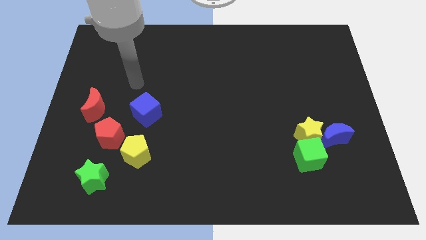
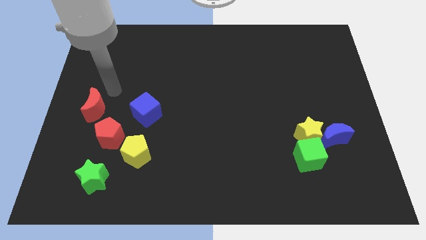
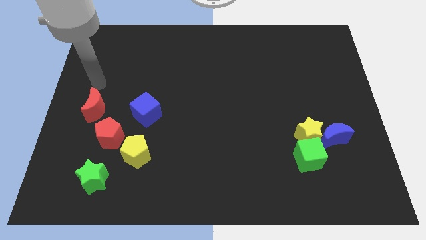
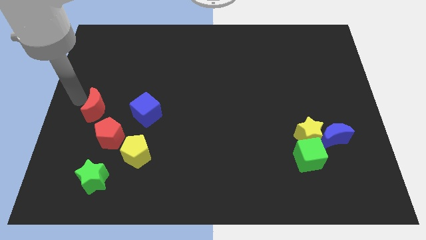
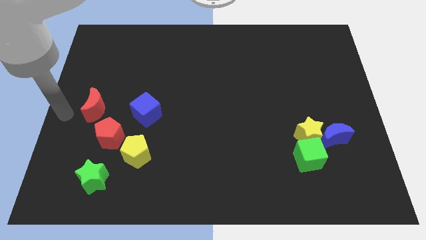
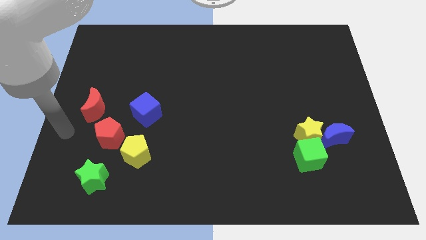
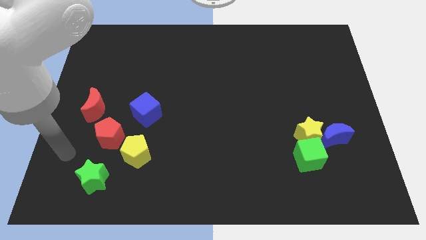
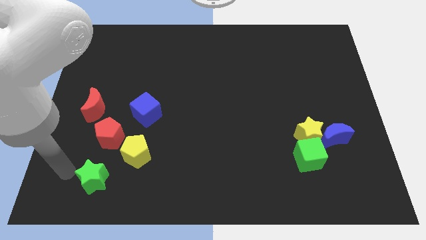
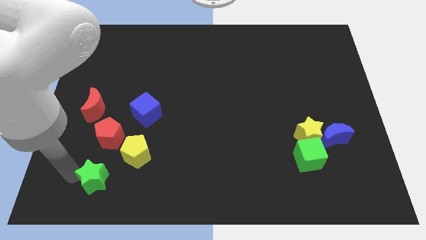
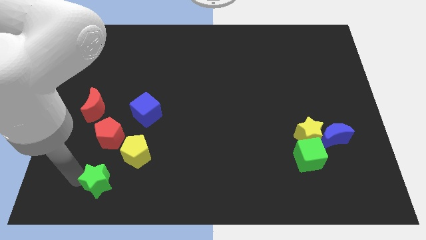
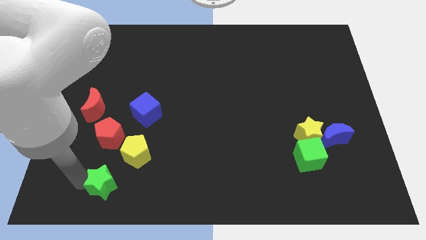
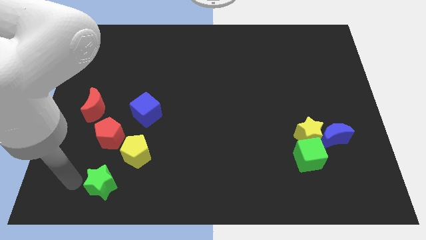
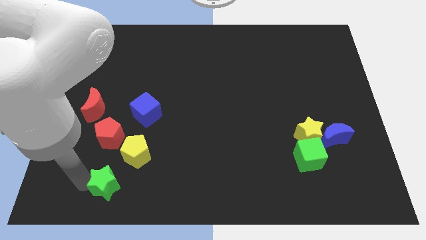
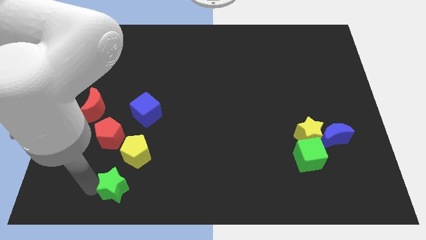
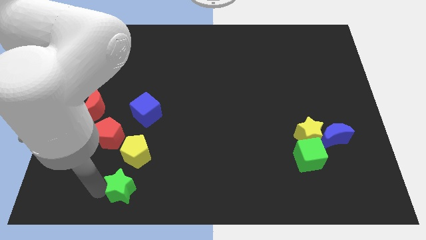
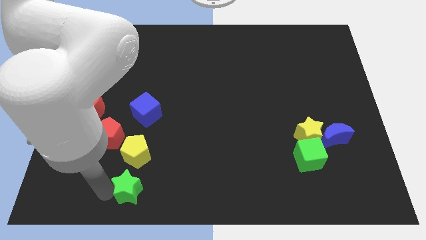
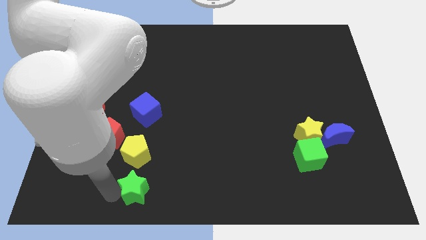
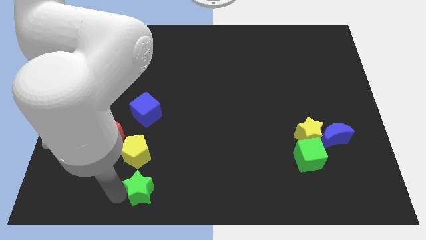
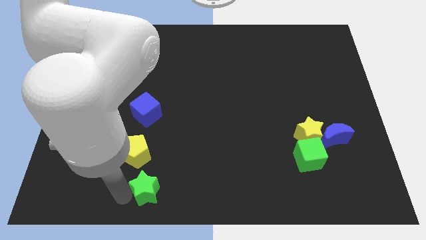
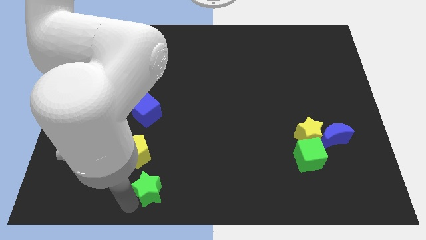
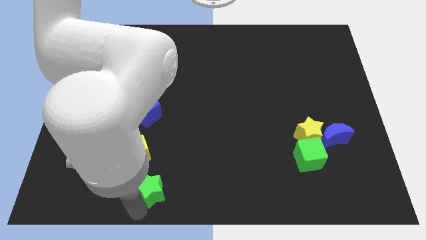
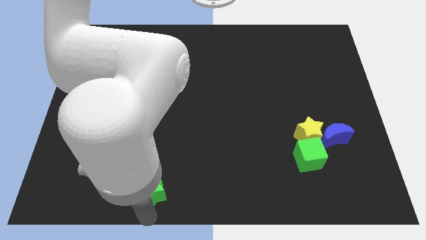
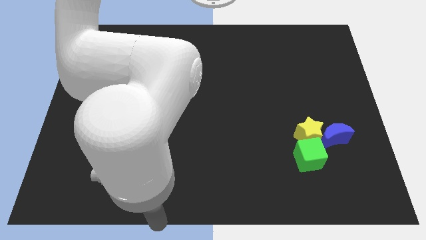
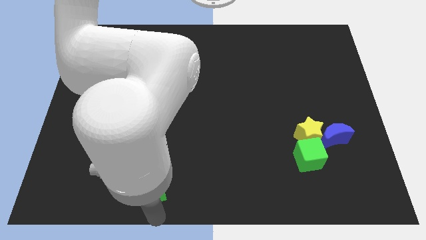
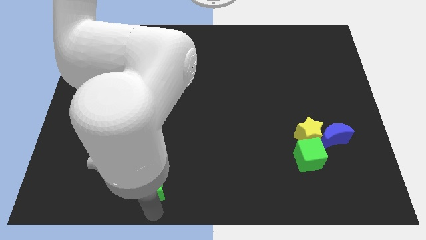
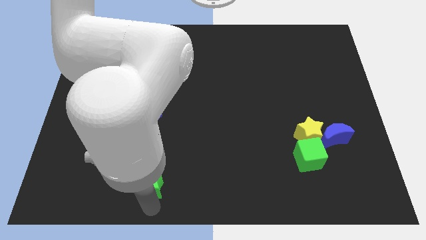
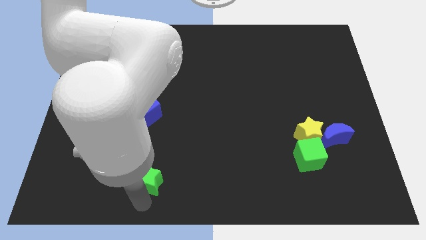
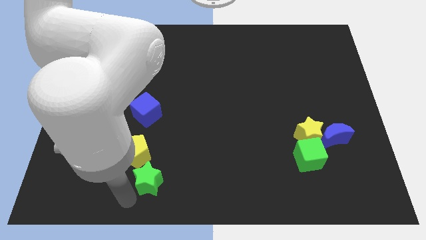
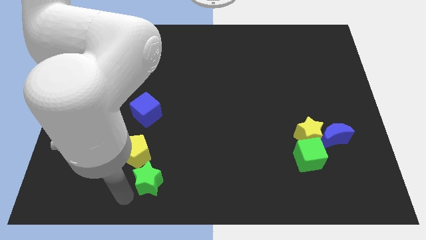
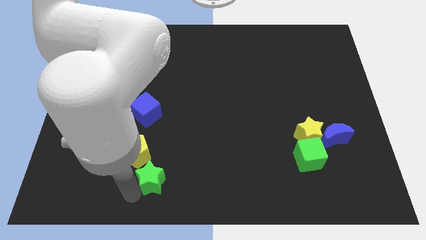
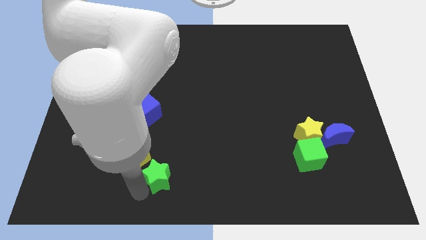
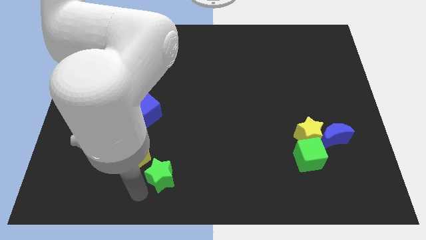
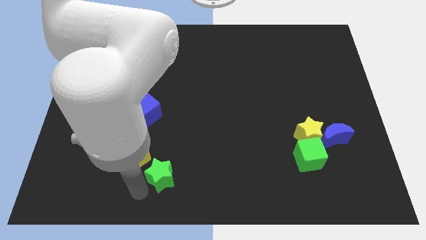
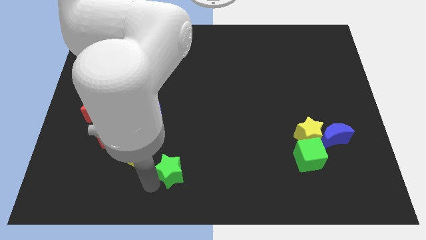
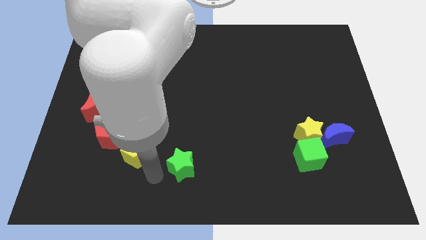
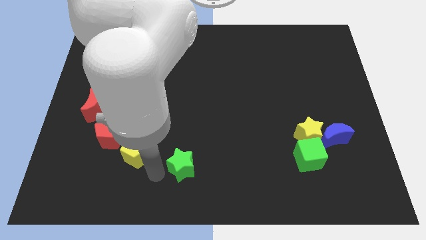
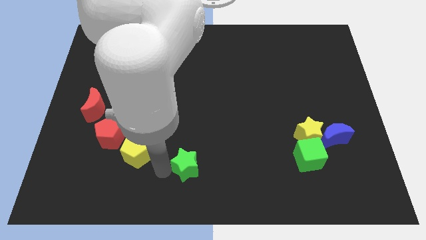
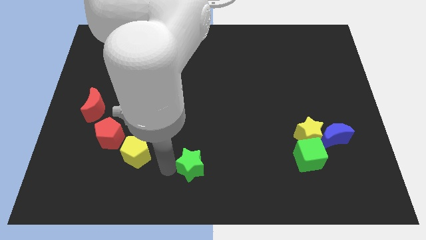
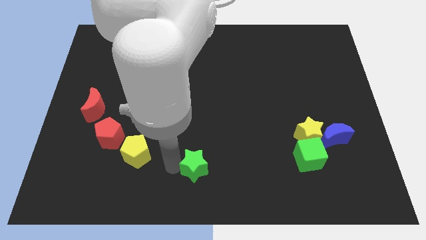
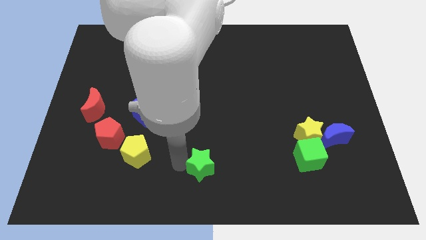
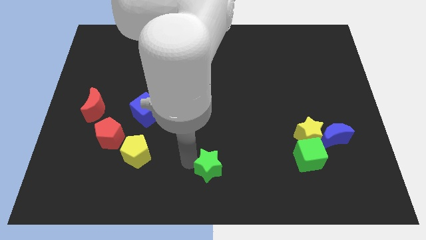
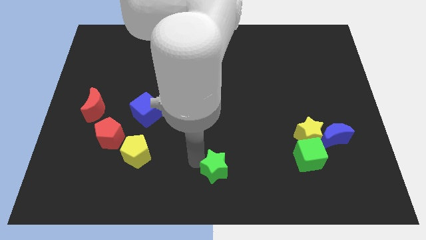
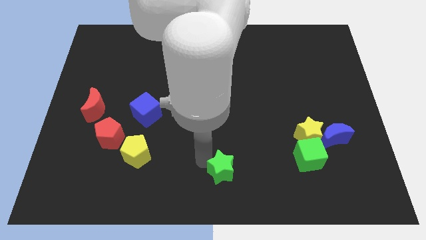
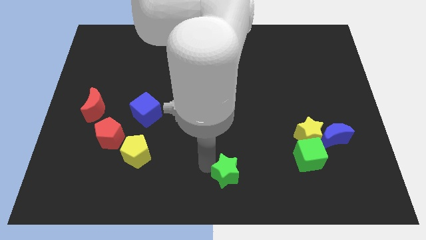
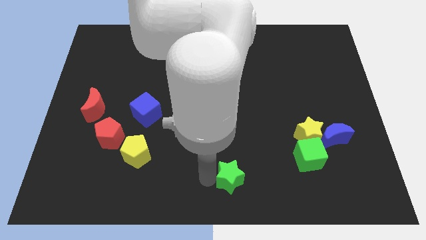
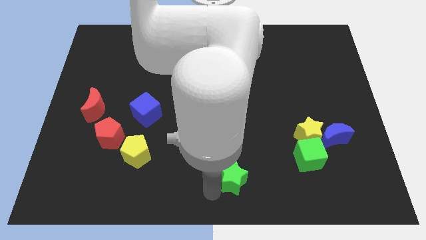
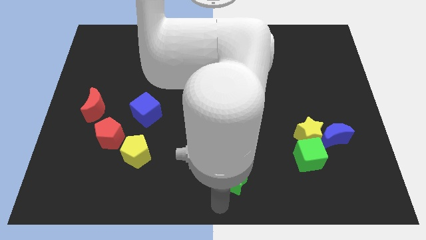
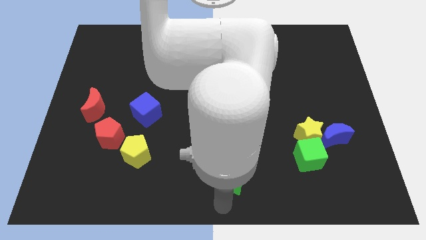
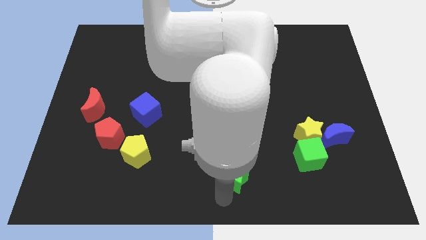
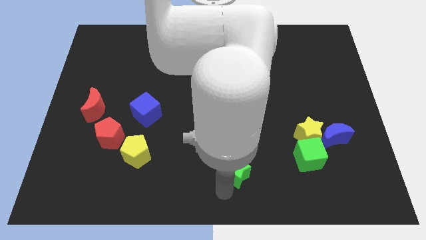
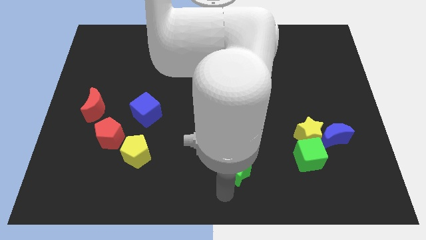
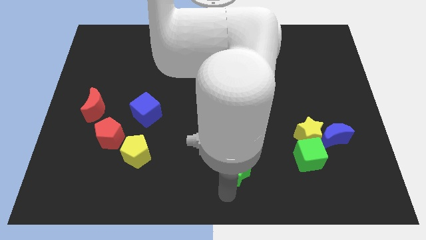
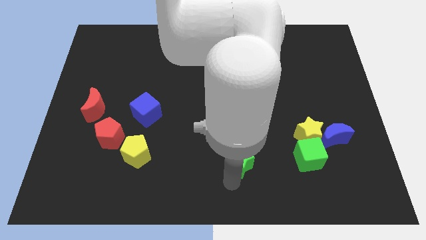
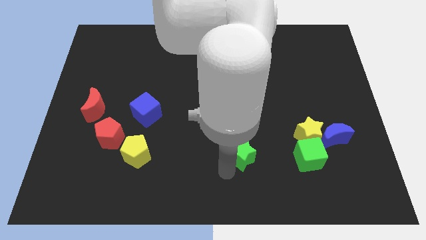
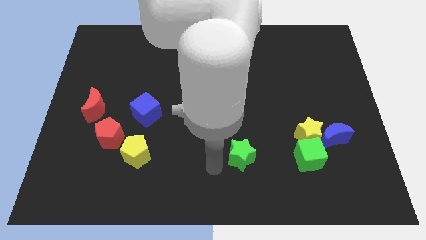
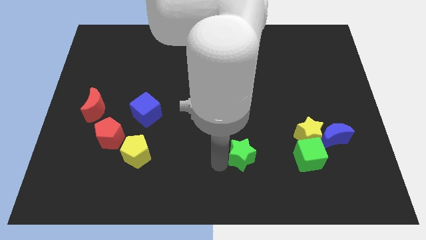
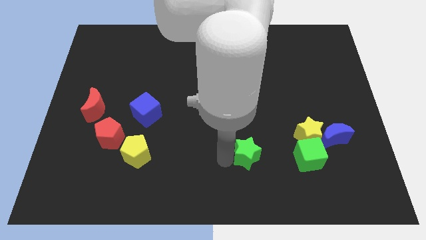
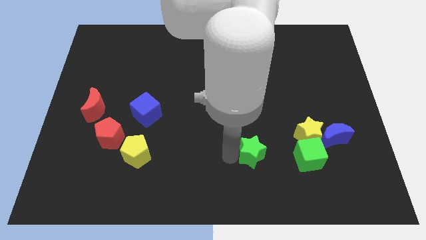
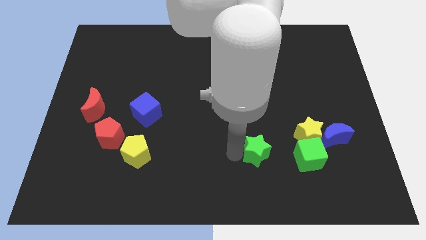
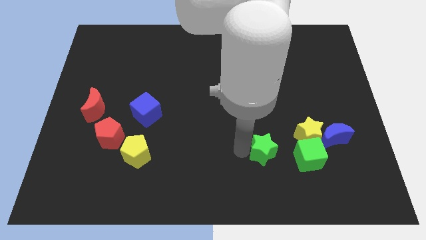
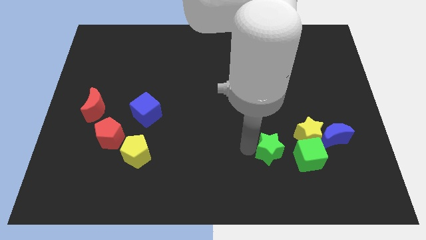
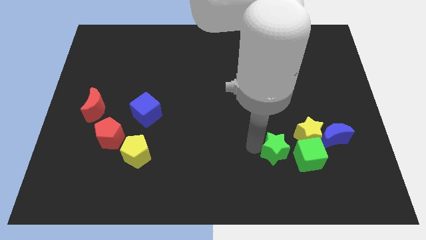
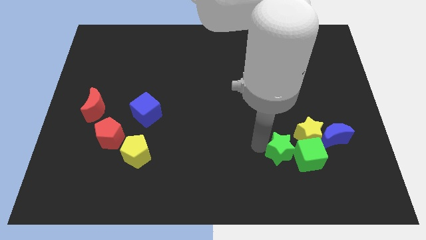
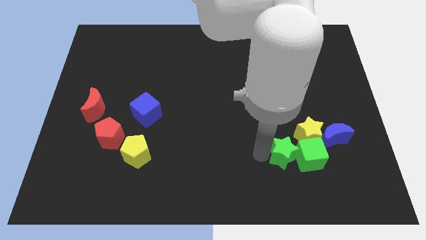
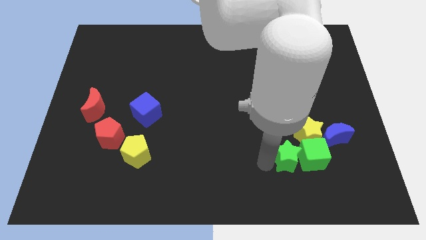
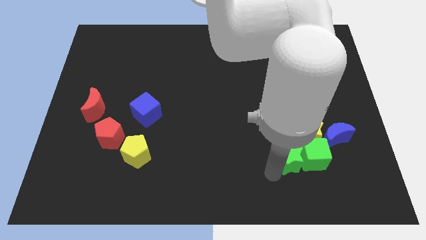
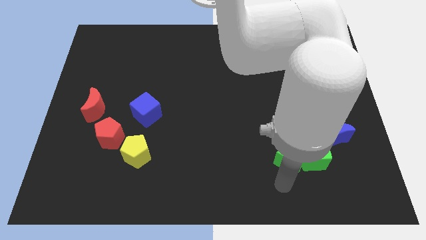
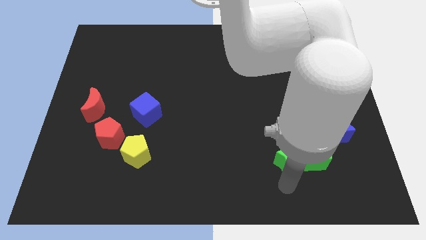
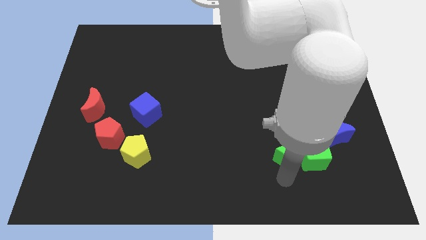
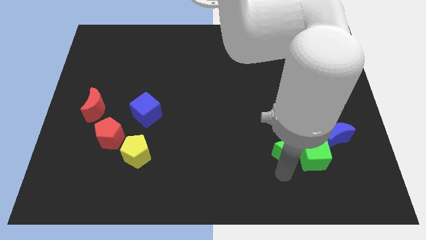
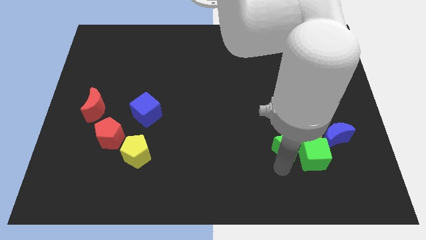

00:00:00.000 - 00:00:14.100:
put the green star close to the yellow star

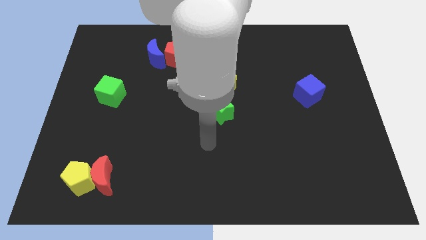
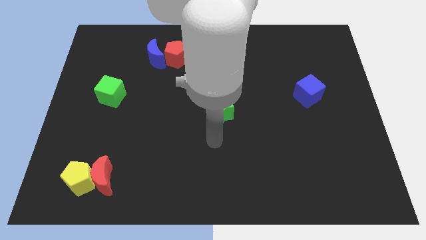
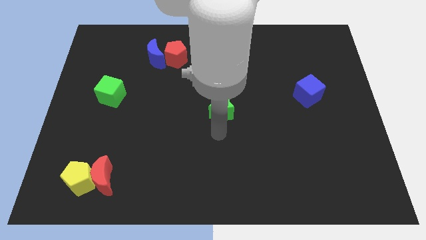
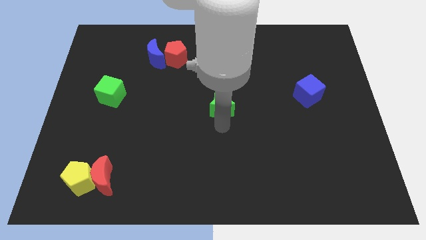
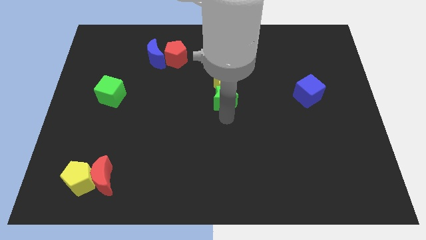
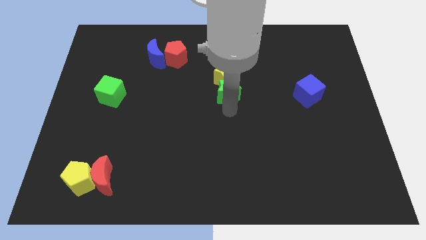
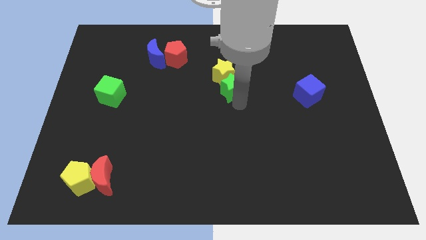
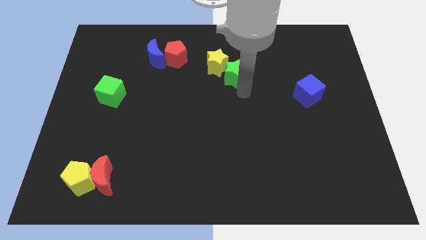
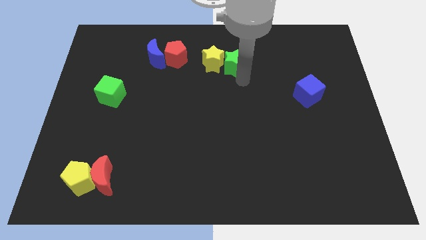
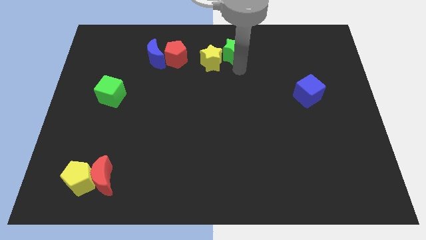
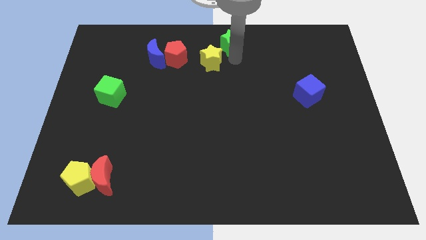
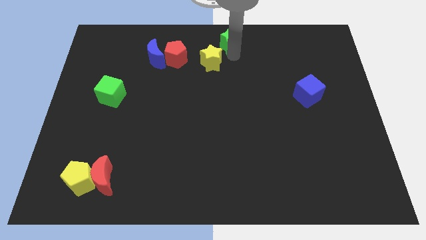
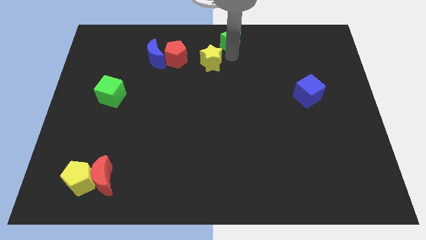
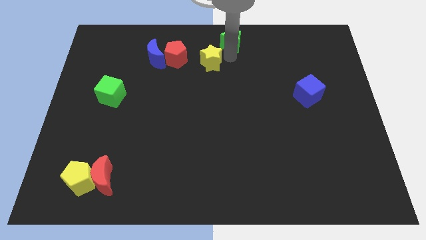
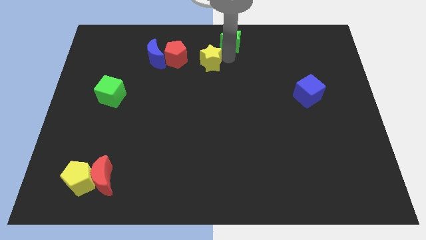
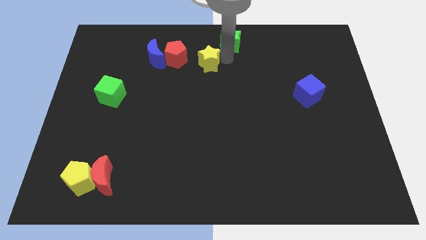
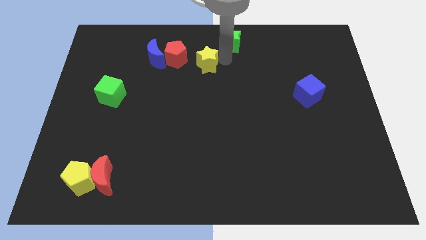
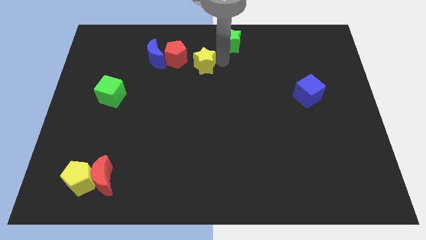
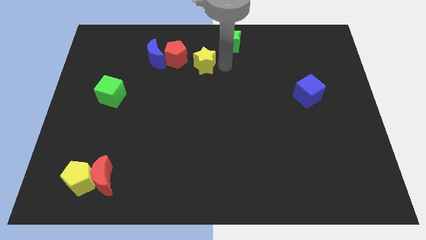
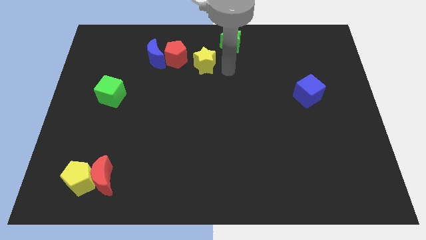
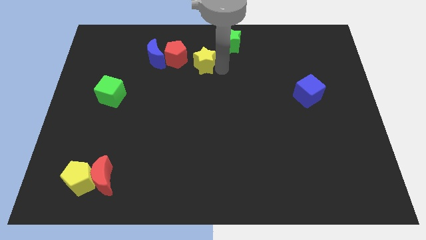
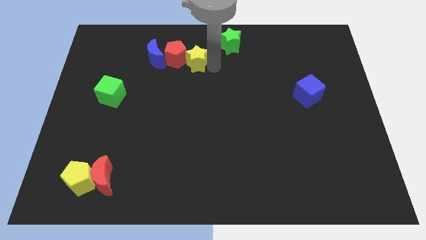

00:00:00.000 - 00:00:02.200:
slide the yellow star to the red pentagon
